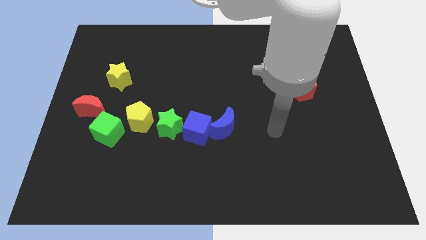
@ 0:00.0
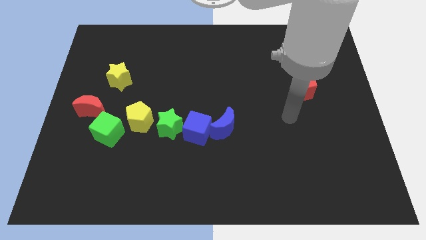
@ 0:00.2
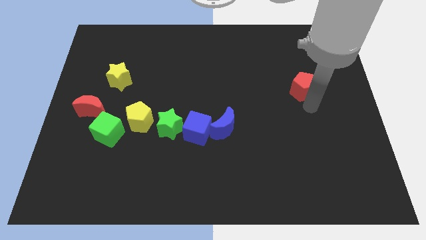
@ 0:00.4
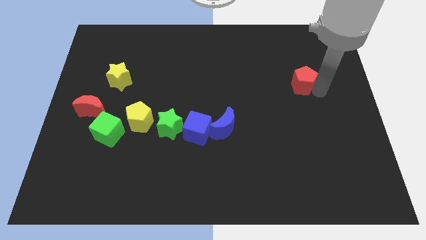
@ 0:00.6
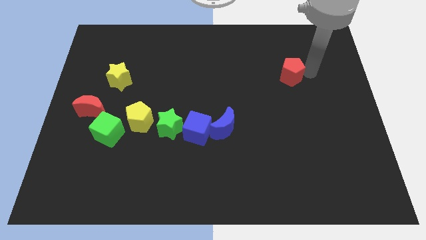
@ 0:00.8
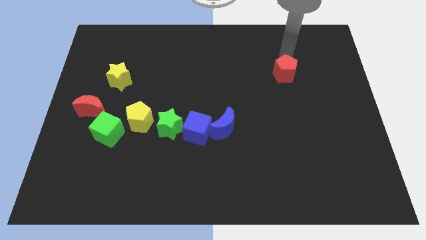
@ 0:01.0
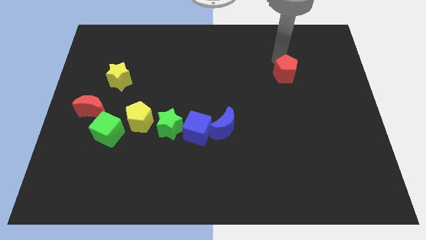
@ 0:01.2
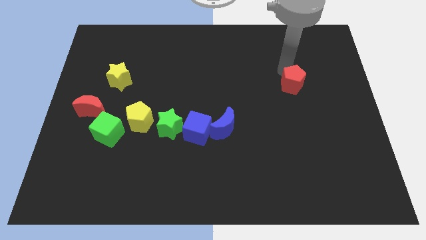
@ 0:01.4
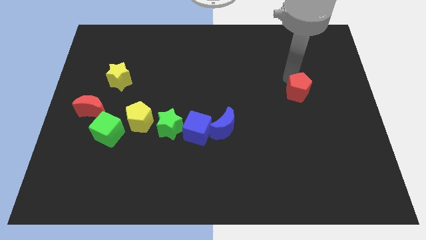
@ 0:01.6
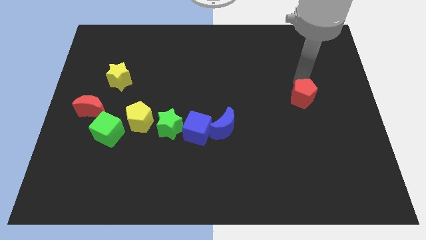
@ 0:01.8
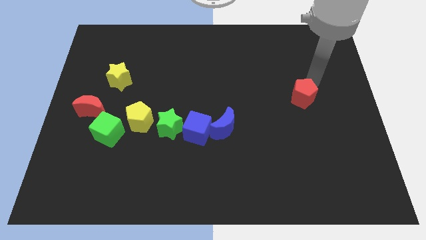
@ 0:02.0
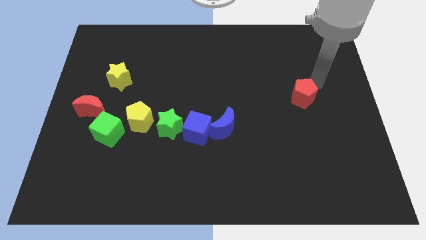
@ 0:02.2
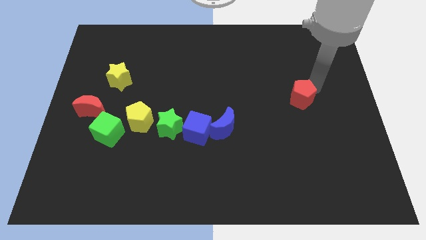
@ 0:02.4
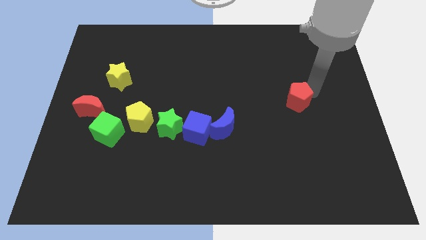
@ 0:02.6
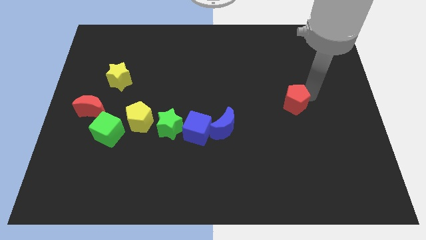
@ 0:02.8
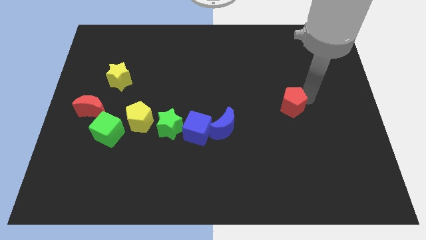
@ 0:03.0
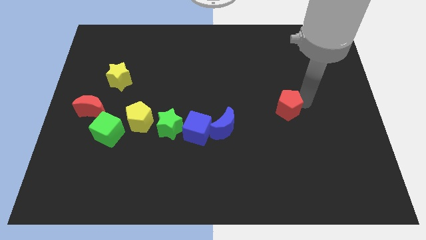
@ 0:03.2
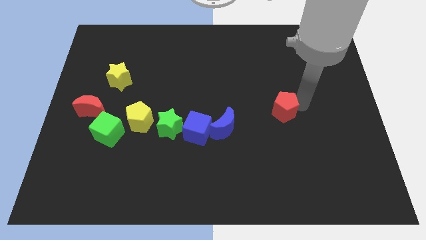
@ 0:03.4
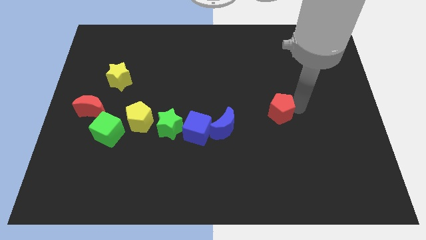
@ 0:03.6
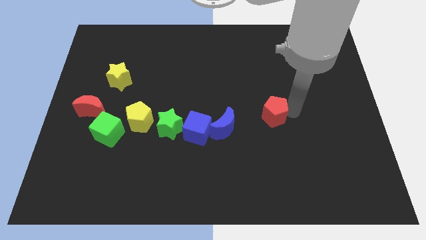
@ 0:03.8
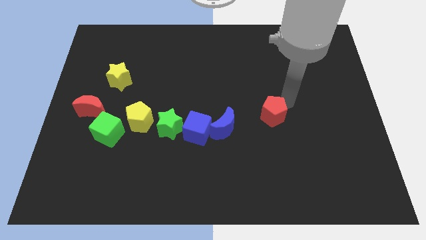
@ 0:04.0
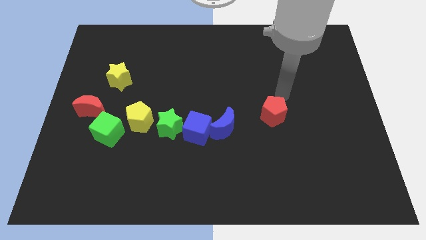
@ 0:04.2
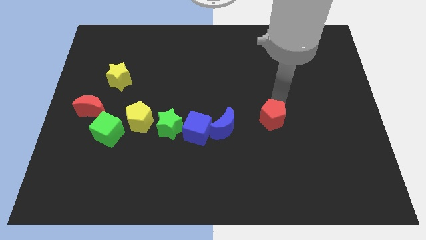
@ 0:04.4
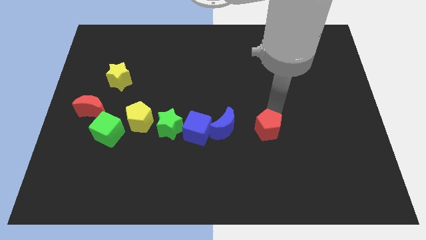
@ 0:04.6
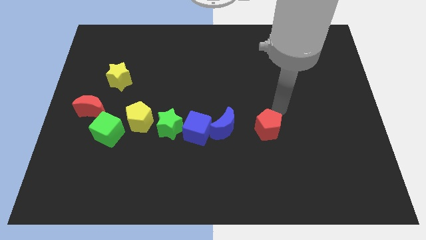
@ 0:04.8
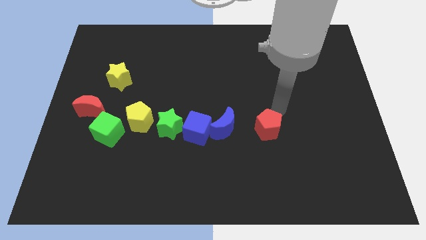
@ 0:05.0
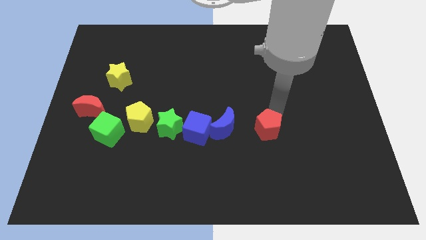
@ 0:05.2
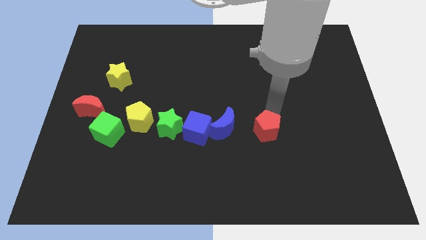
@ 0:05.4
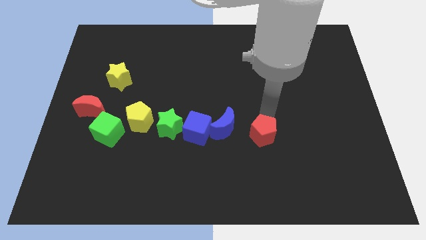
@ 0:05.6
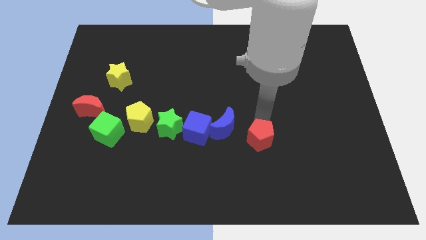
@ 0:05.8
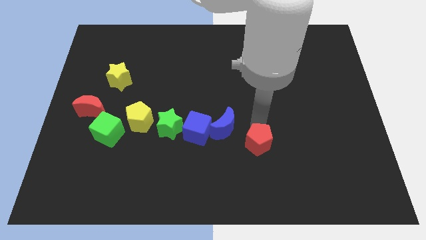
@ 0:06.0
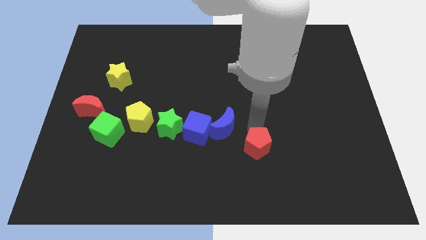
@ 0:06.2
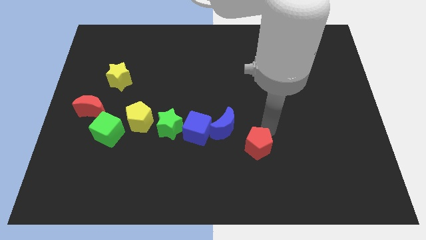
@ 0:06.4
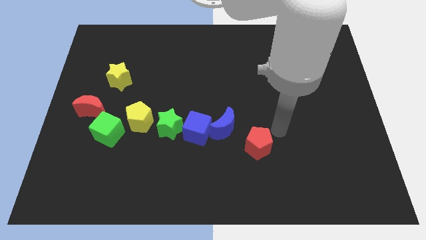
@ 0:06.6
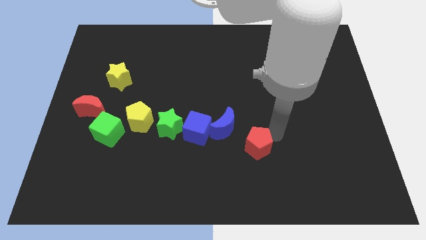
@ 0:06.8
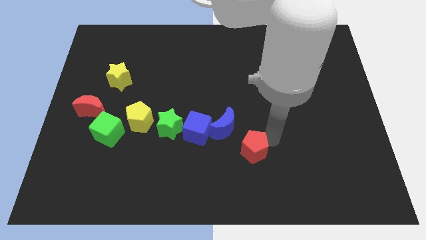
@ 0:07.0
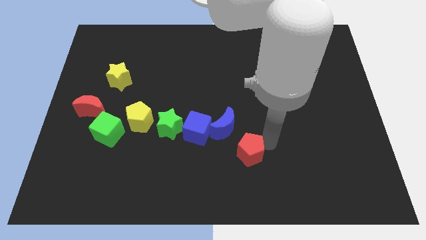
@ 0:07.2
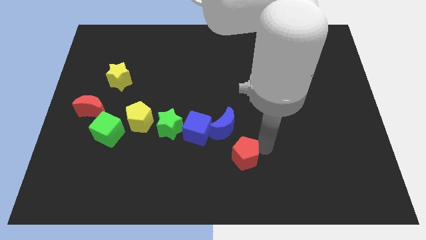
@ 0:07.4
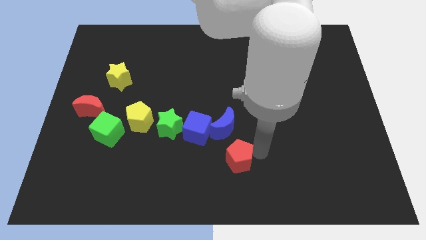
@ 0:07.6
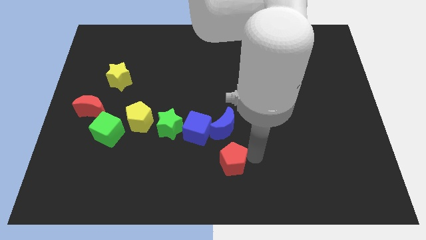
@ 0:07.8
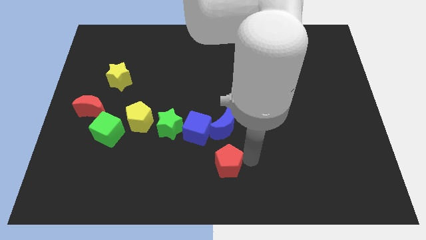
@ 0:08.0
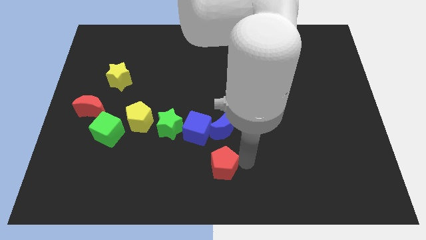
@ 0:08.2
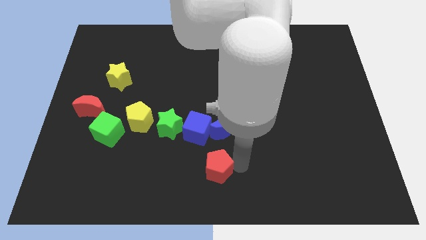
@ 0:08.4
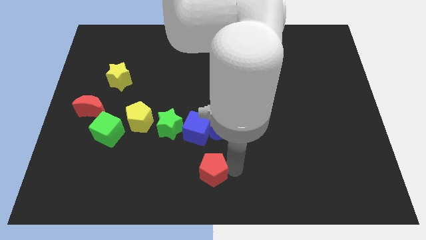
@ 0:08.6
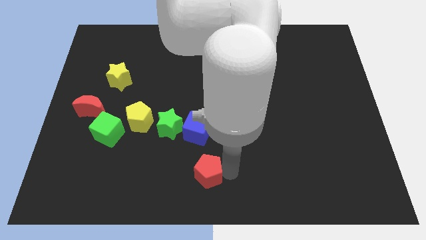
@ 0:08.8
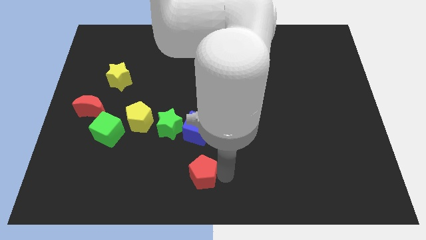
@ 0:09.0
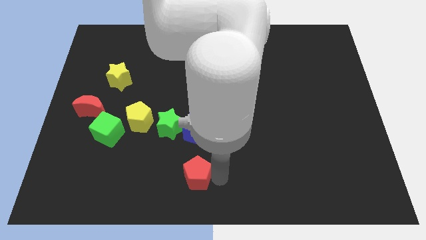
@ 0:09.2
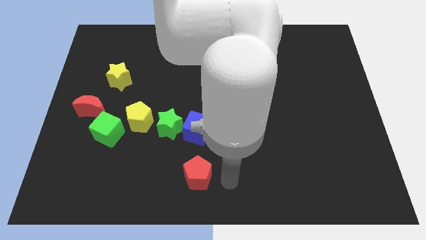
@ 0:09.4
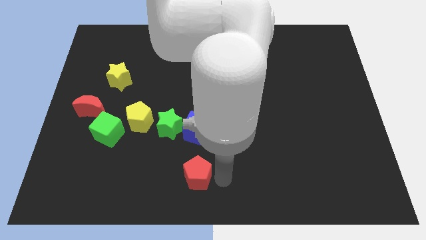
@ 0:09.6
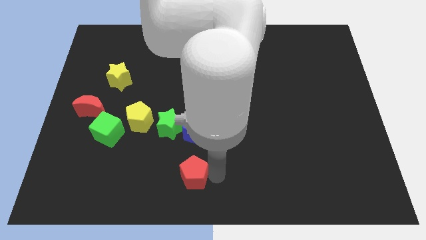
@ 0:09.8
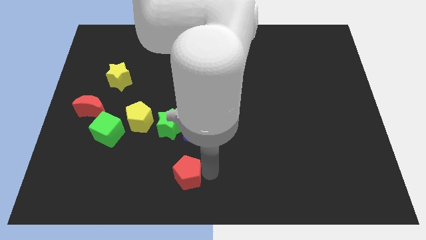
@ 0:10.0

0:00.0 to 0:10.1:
slide the red pentagon to the bottom of the green star

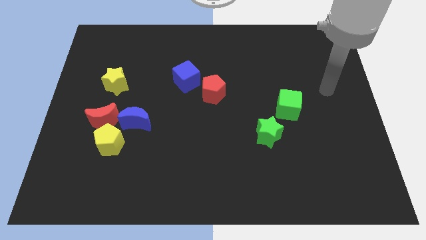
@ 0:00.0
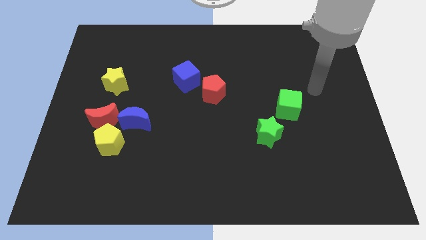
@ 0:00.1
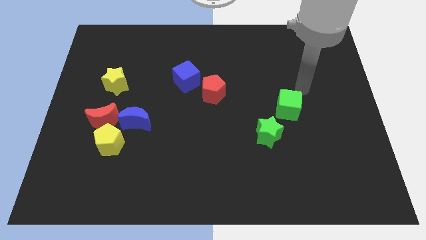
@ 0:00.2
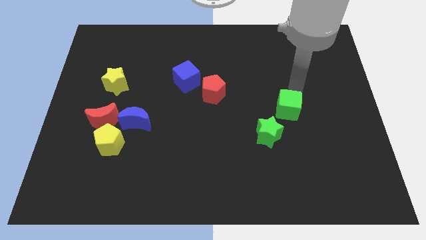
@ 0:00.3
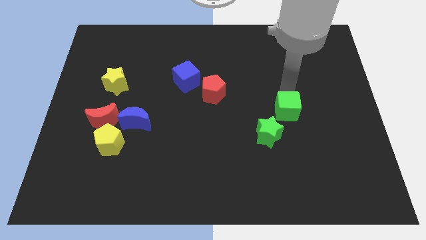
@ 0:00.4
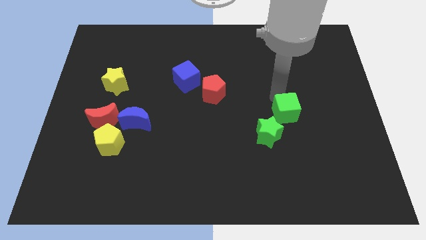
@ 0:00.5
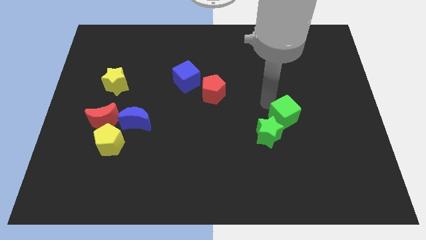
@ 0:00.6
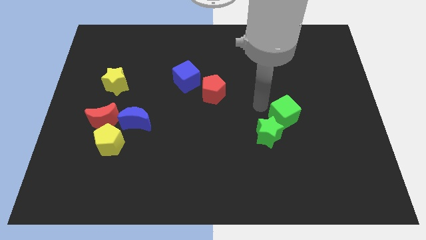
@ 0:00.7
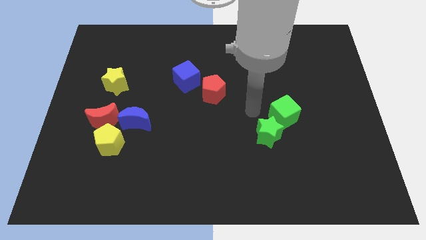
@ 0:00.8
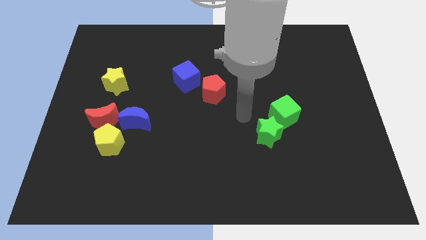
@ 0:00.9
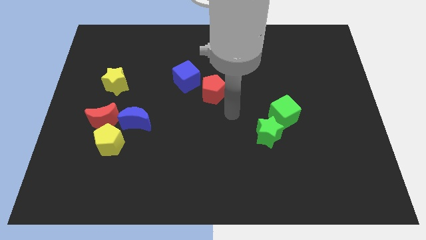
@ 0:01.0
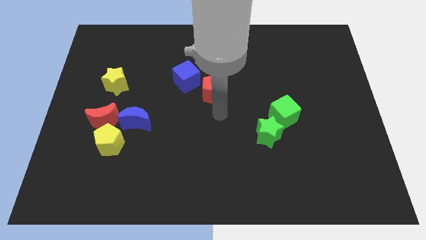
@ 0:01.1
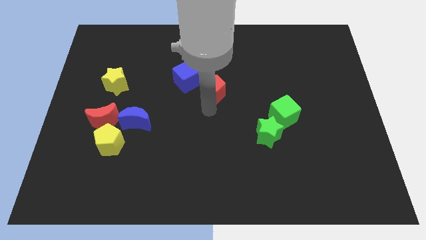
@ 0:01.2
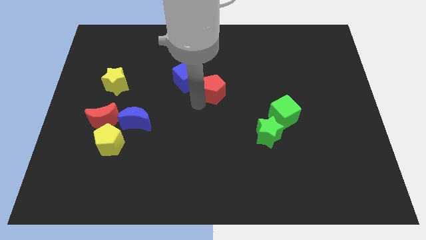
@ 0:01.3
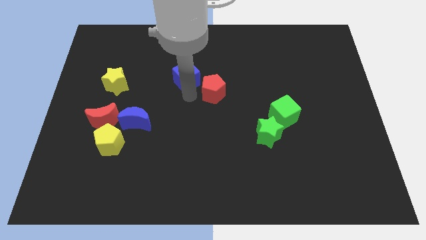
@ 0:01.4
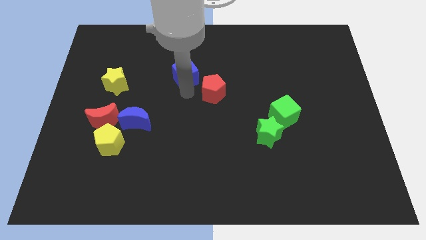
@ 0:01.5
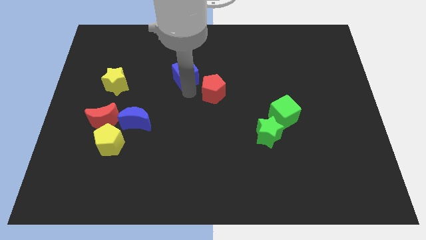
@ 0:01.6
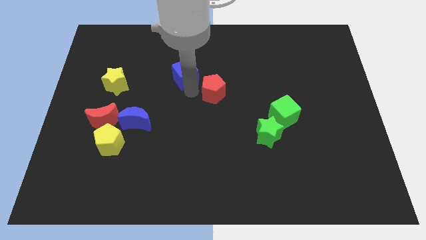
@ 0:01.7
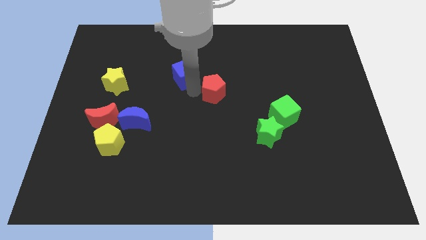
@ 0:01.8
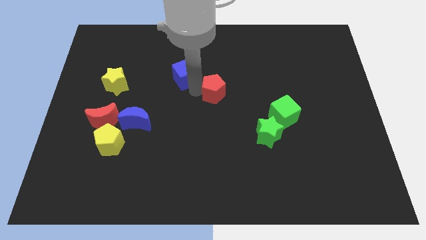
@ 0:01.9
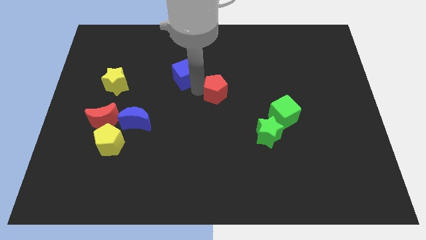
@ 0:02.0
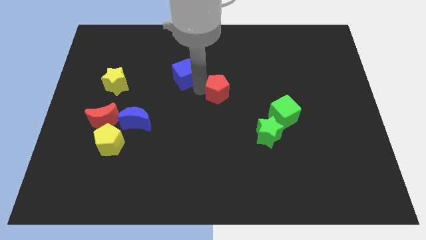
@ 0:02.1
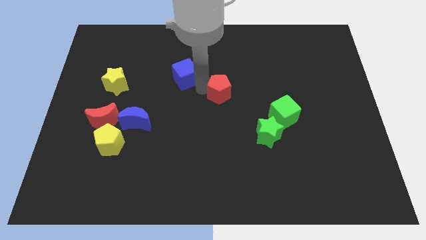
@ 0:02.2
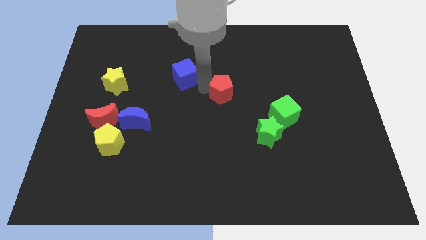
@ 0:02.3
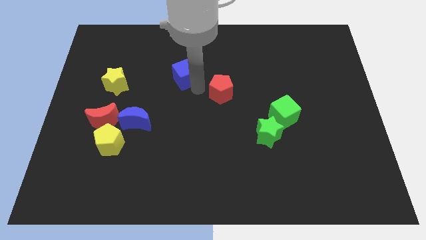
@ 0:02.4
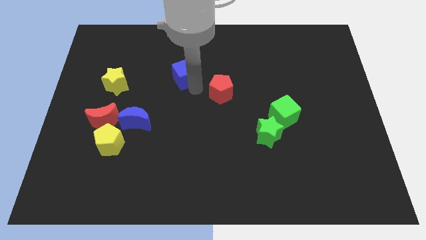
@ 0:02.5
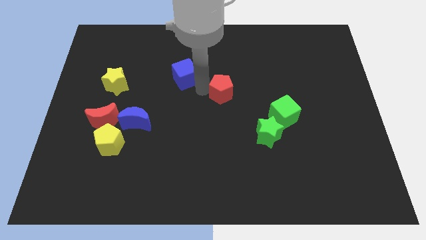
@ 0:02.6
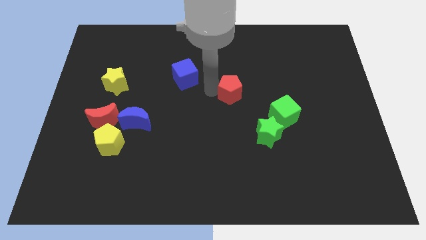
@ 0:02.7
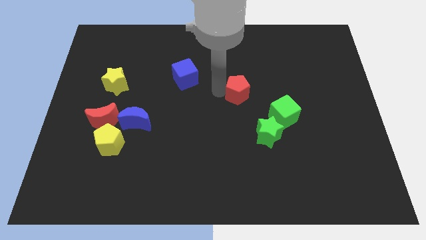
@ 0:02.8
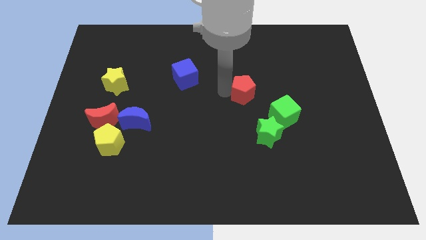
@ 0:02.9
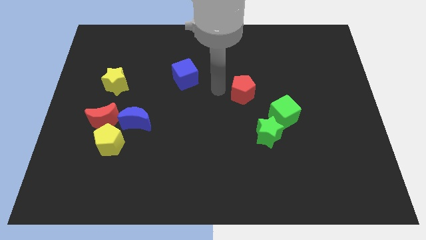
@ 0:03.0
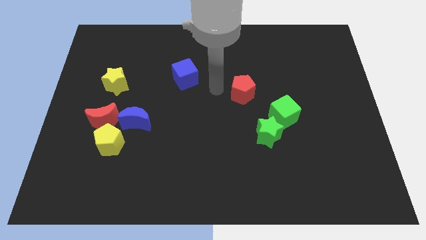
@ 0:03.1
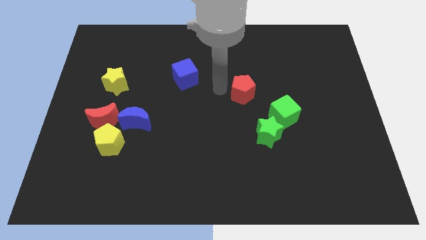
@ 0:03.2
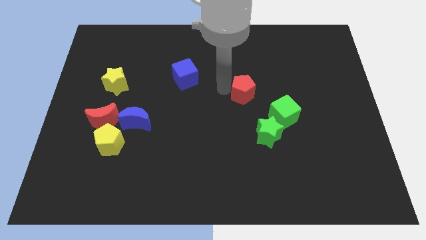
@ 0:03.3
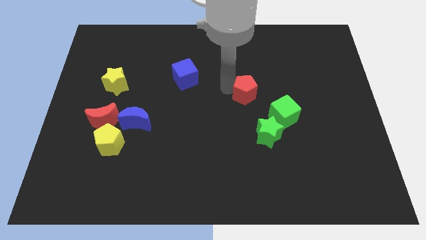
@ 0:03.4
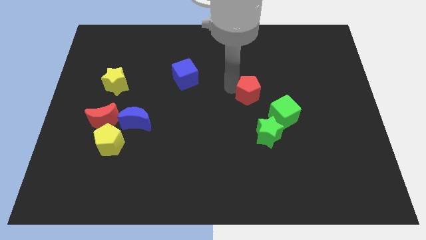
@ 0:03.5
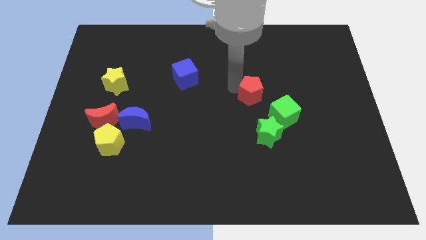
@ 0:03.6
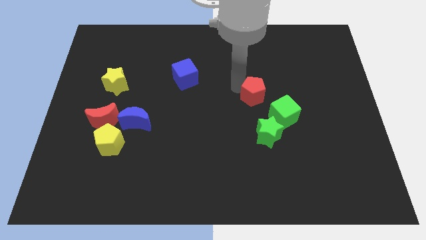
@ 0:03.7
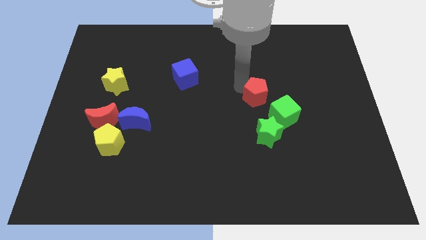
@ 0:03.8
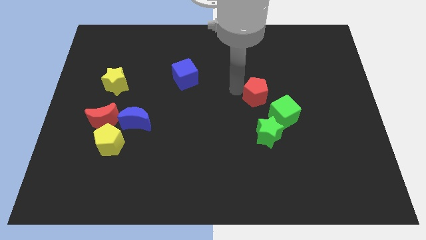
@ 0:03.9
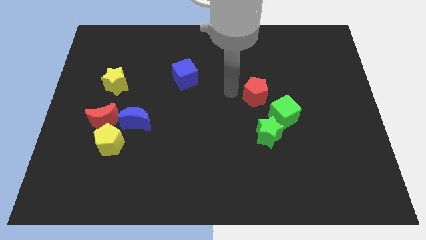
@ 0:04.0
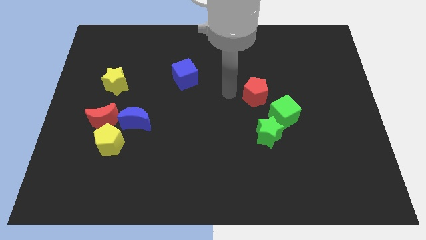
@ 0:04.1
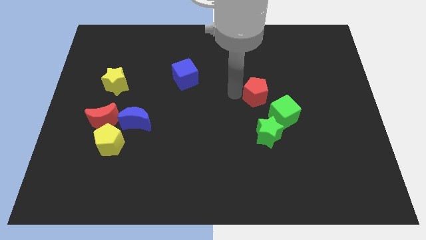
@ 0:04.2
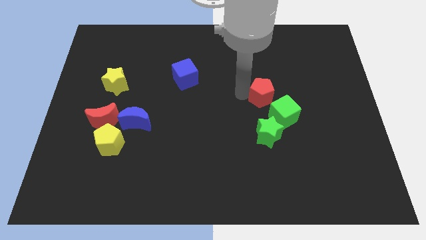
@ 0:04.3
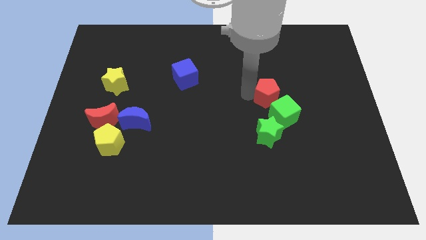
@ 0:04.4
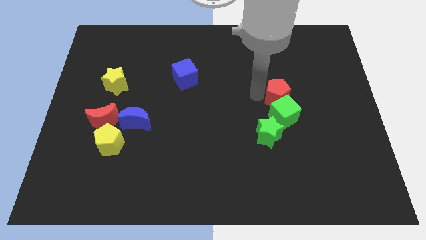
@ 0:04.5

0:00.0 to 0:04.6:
push the red pentagon to the top right of the green cube
